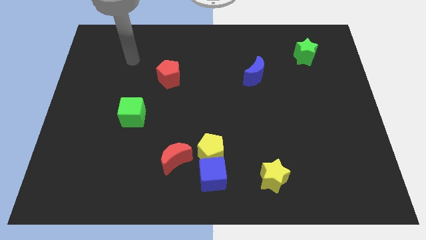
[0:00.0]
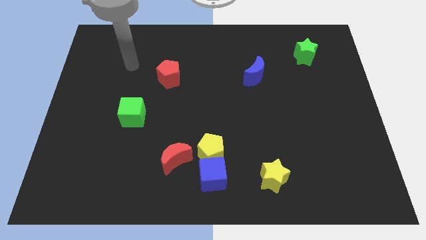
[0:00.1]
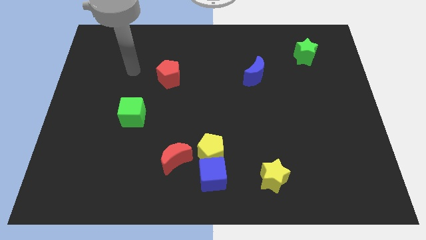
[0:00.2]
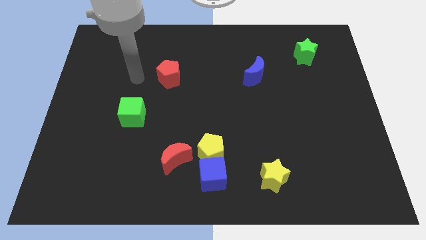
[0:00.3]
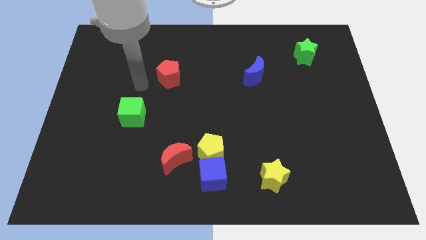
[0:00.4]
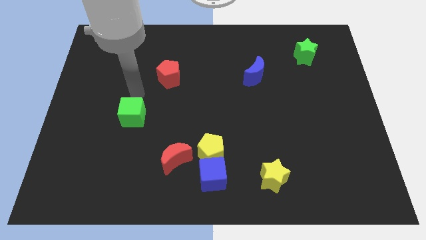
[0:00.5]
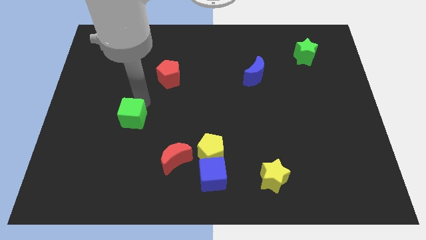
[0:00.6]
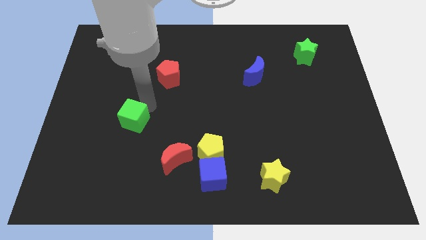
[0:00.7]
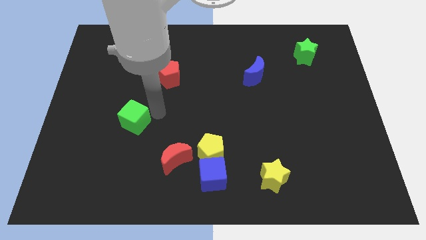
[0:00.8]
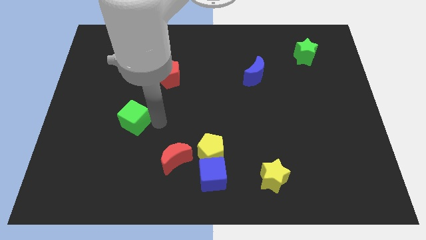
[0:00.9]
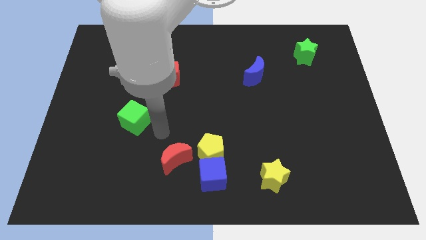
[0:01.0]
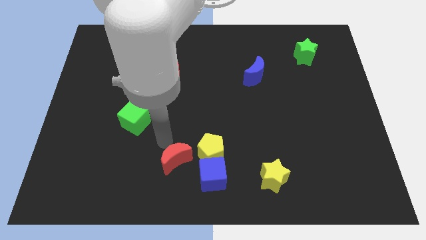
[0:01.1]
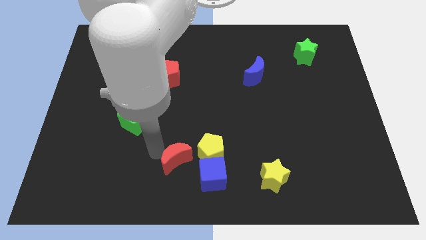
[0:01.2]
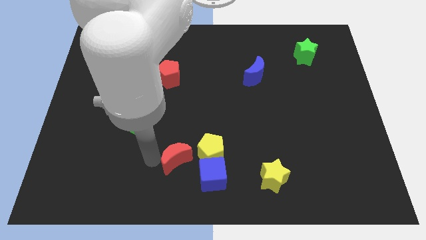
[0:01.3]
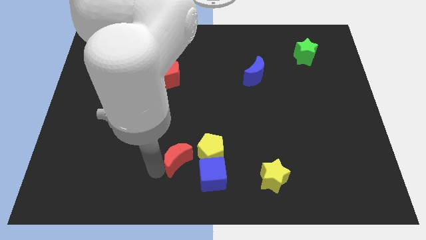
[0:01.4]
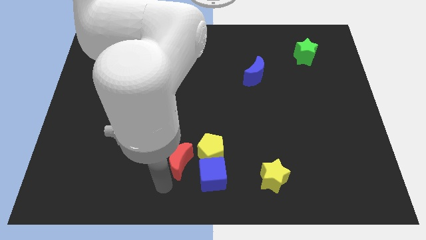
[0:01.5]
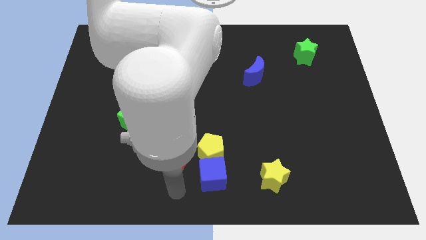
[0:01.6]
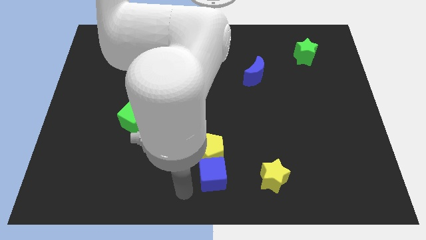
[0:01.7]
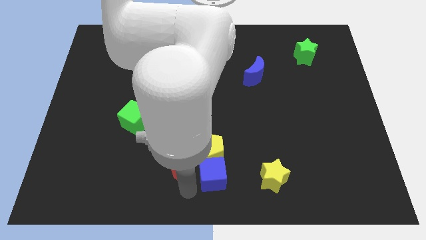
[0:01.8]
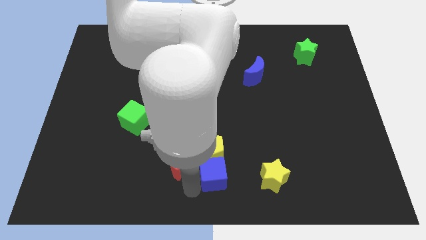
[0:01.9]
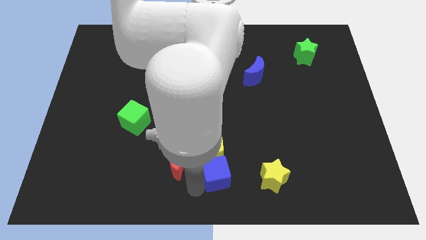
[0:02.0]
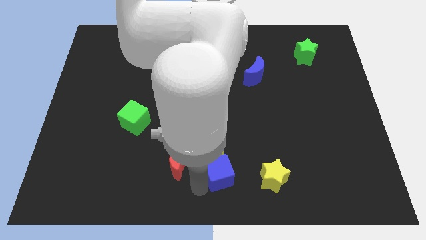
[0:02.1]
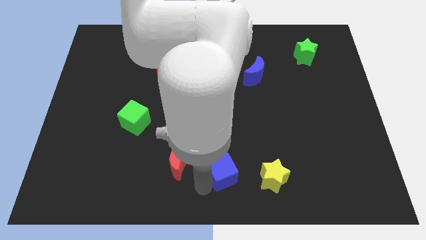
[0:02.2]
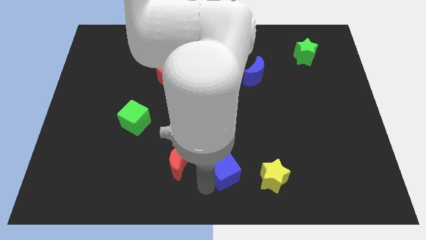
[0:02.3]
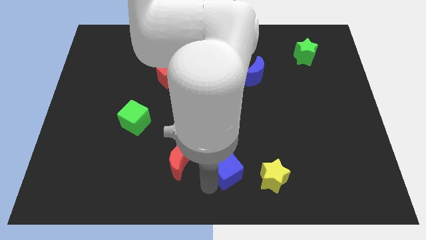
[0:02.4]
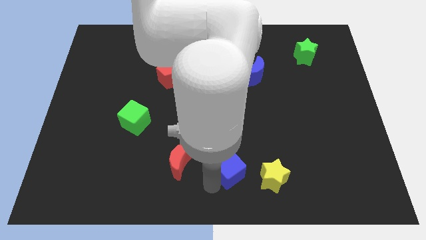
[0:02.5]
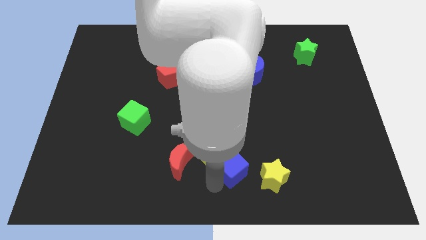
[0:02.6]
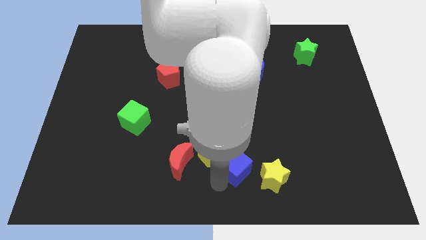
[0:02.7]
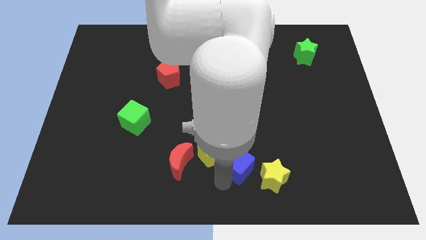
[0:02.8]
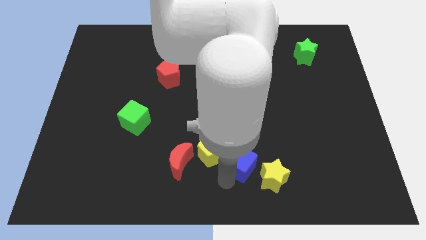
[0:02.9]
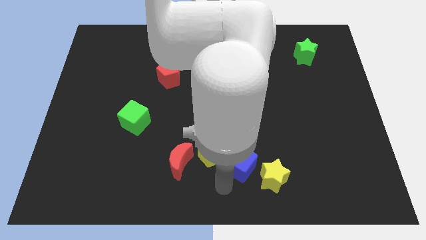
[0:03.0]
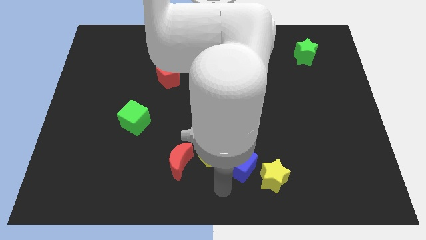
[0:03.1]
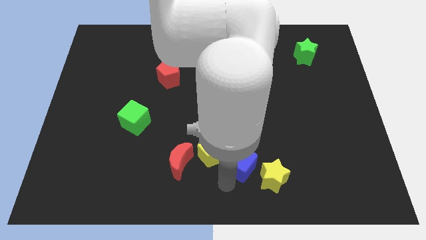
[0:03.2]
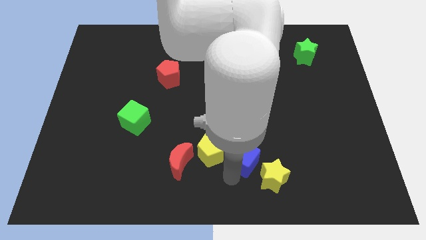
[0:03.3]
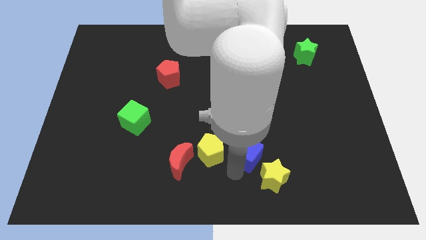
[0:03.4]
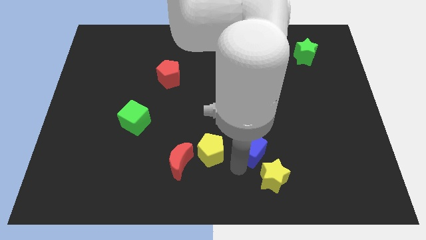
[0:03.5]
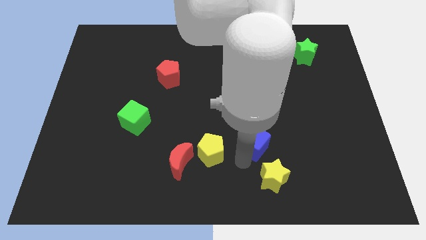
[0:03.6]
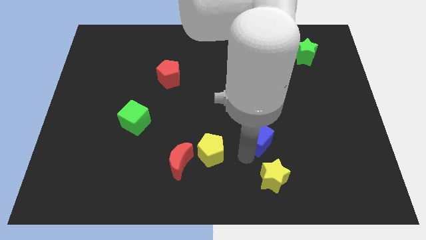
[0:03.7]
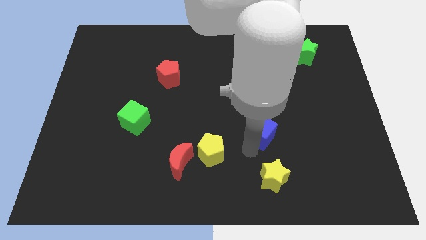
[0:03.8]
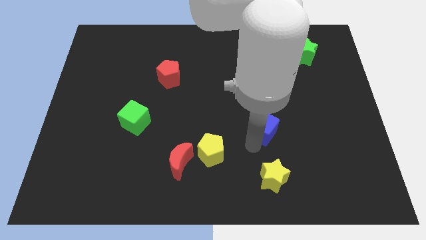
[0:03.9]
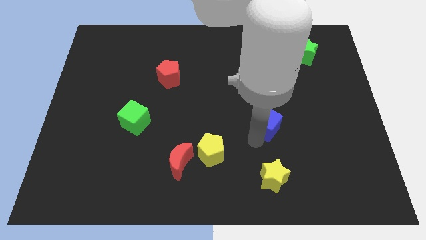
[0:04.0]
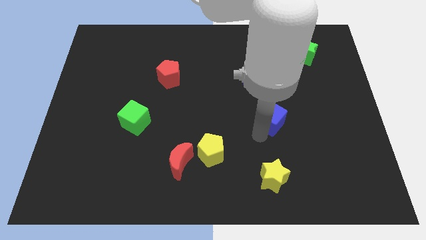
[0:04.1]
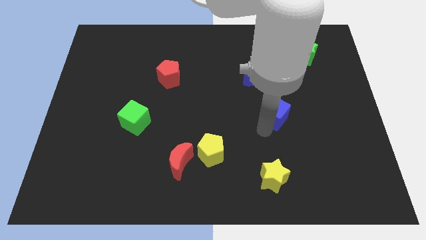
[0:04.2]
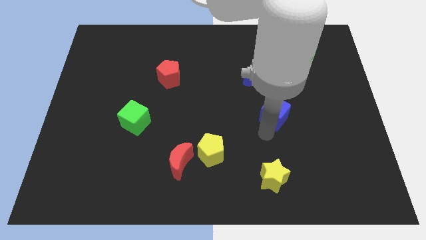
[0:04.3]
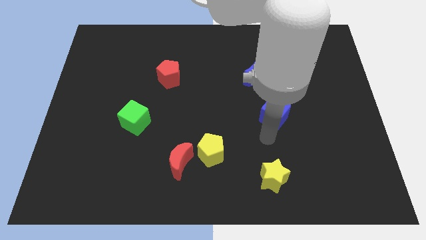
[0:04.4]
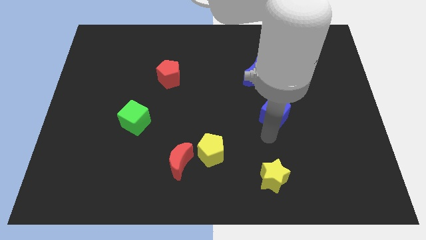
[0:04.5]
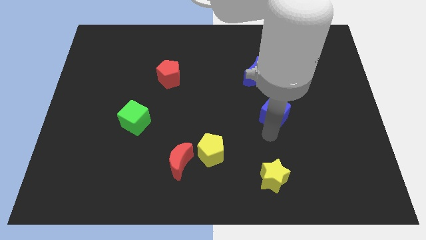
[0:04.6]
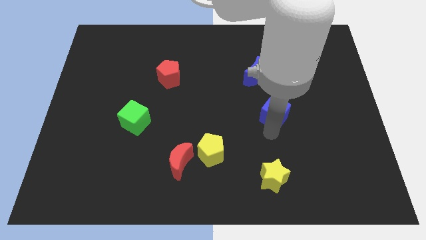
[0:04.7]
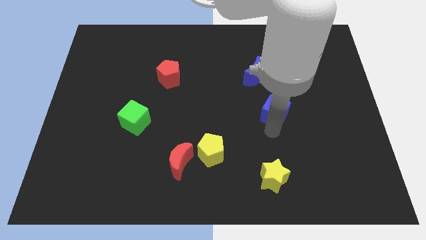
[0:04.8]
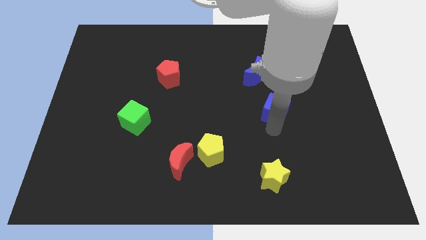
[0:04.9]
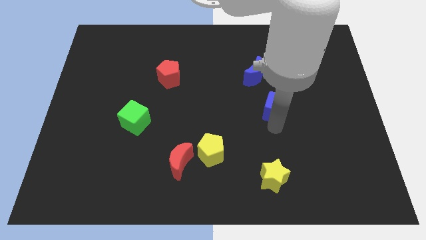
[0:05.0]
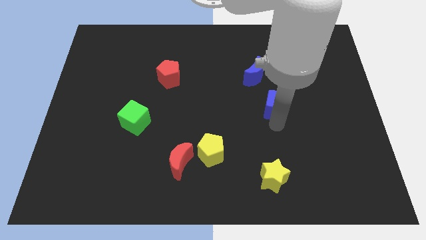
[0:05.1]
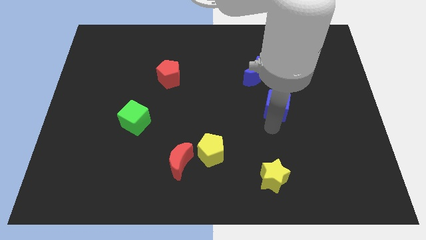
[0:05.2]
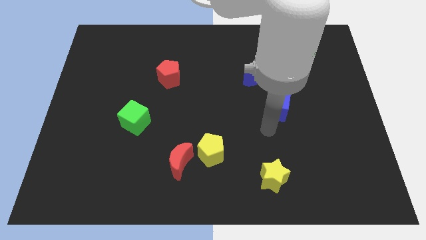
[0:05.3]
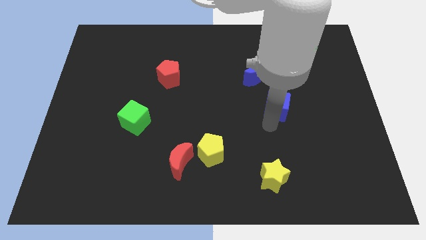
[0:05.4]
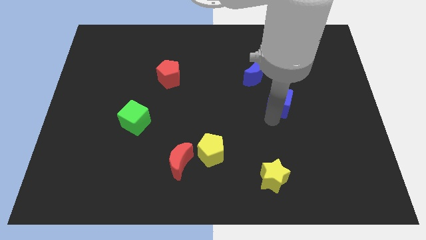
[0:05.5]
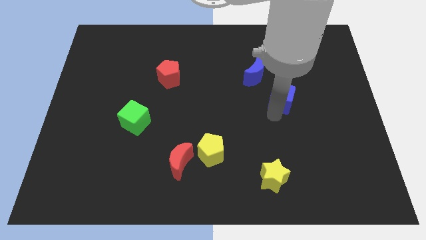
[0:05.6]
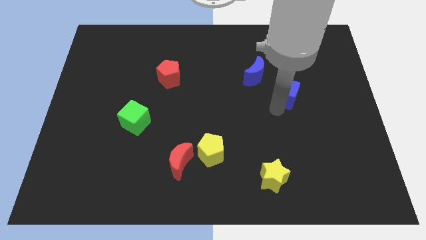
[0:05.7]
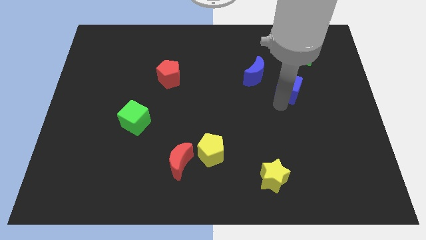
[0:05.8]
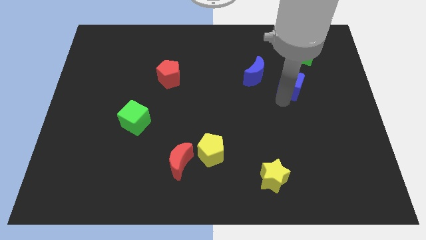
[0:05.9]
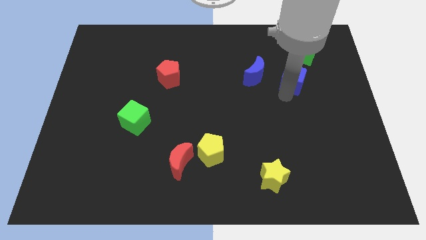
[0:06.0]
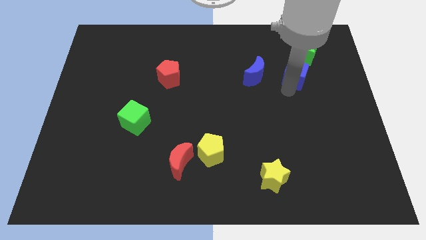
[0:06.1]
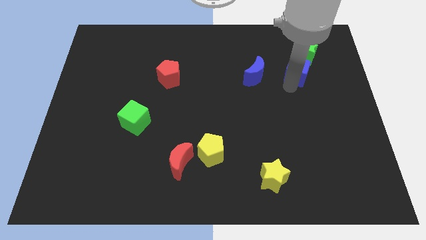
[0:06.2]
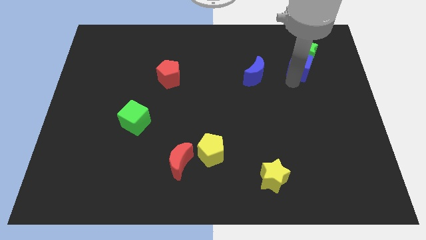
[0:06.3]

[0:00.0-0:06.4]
move the blue cube close to the green star

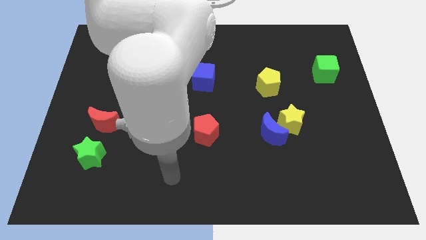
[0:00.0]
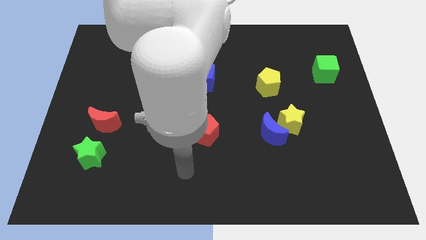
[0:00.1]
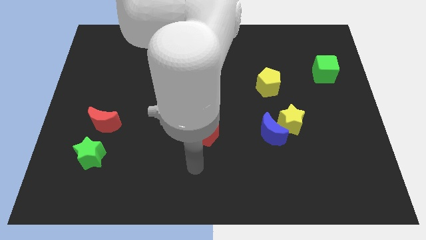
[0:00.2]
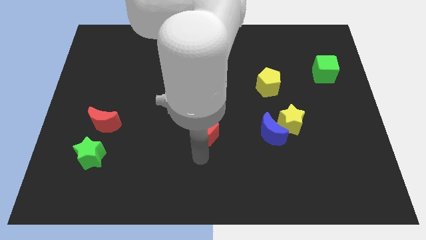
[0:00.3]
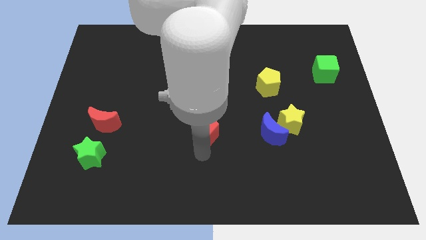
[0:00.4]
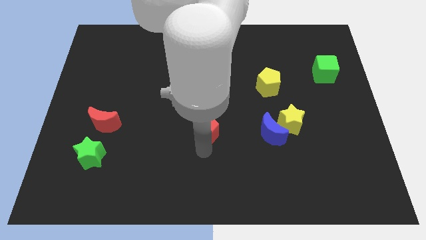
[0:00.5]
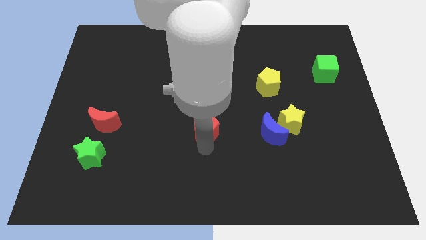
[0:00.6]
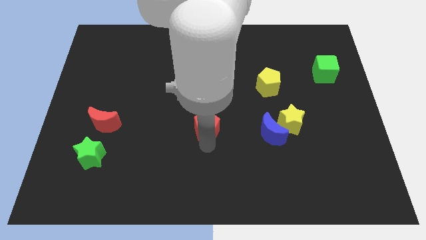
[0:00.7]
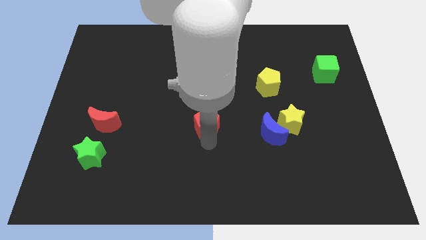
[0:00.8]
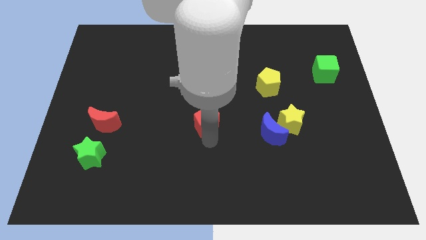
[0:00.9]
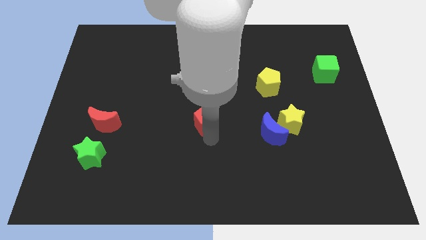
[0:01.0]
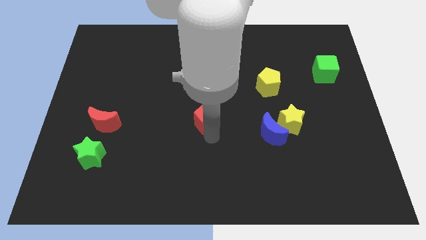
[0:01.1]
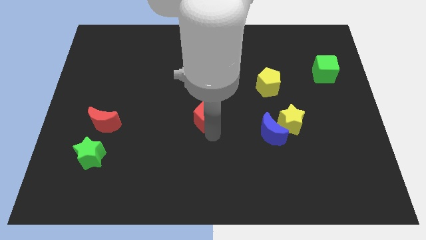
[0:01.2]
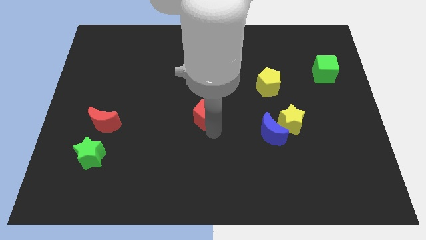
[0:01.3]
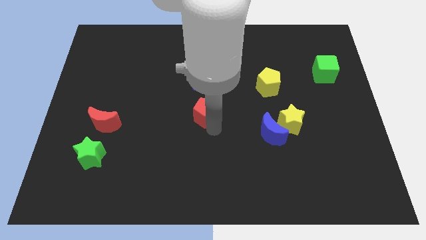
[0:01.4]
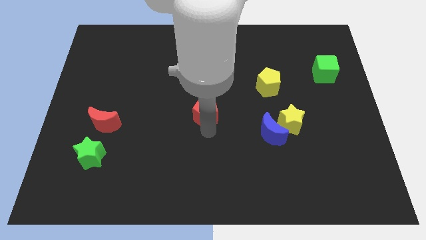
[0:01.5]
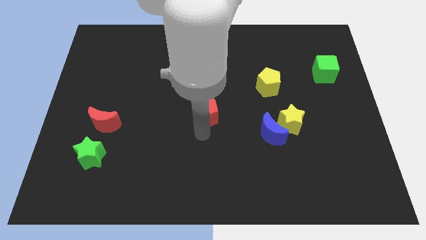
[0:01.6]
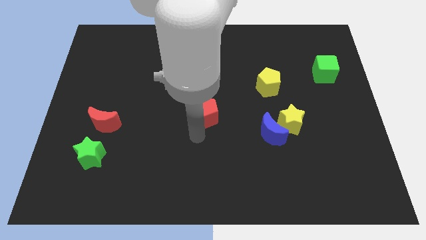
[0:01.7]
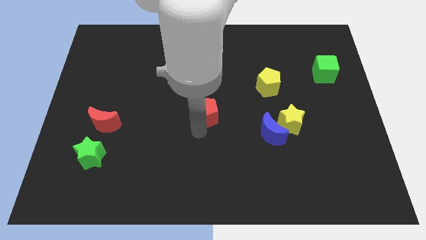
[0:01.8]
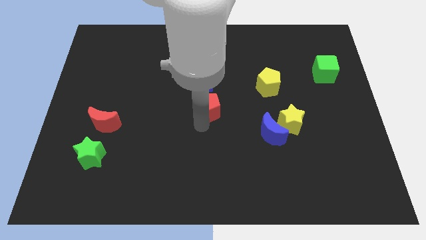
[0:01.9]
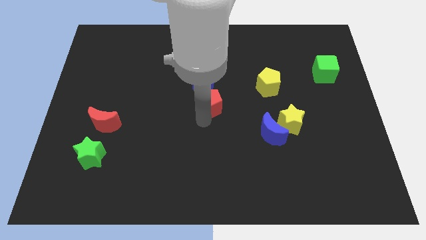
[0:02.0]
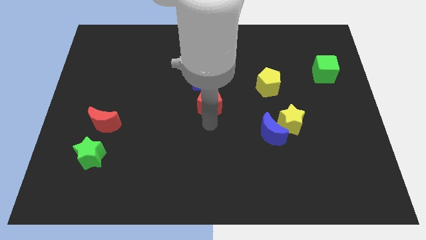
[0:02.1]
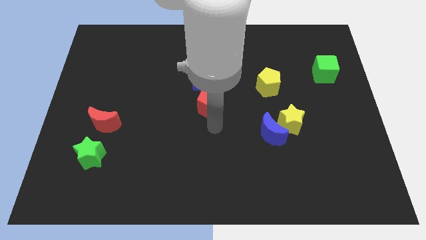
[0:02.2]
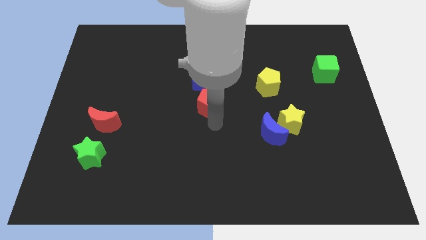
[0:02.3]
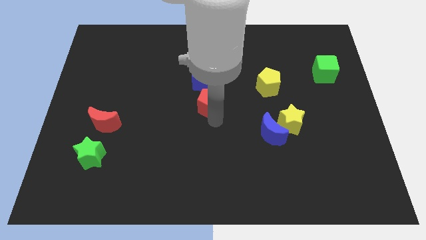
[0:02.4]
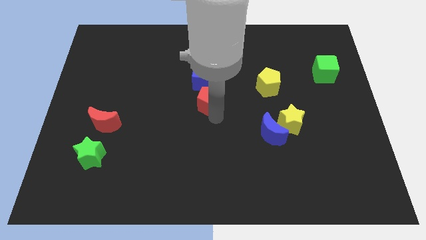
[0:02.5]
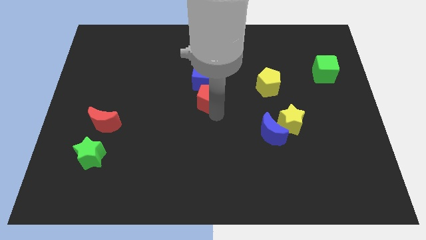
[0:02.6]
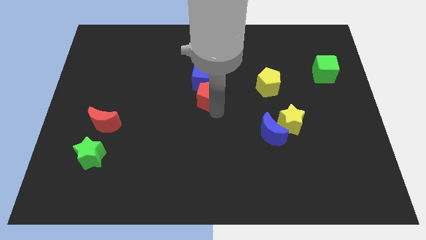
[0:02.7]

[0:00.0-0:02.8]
push the red pentagon towards the blue cube
